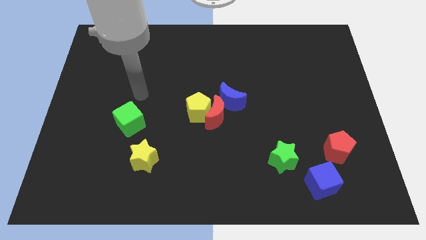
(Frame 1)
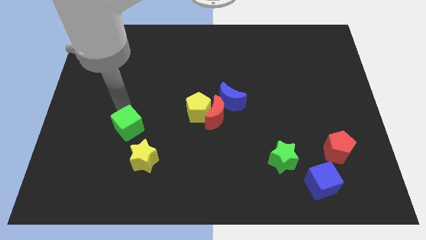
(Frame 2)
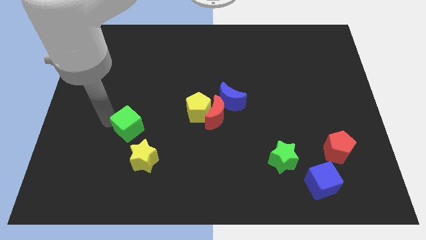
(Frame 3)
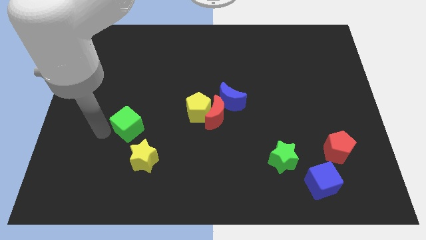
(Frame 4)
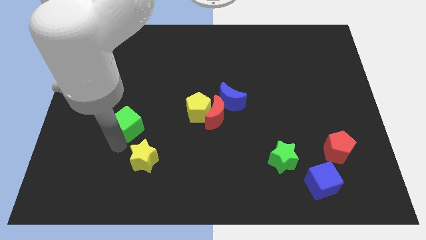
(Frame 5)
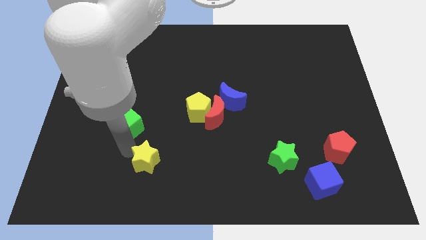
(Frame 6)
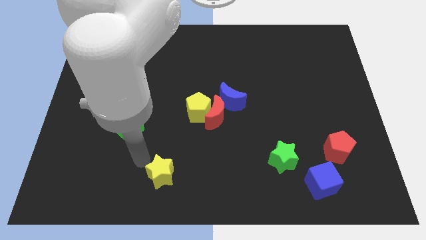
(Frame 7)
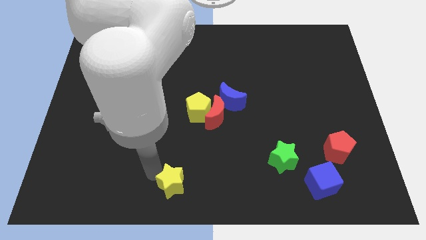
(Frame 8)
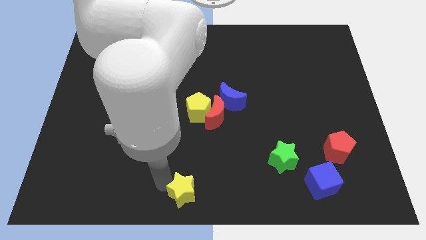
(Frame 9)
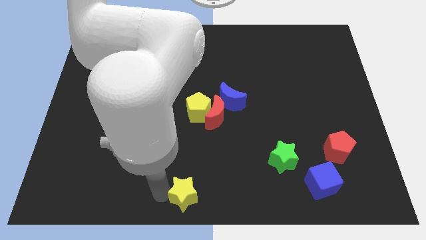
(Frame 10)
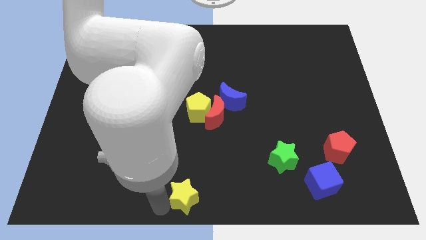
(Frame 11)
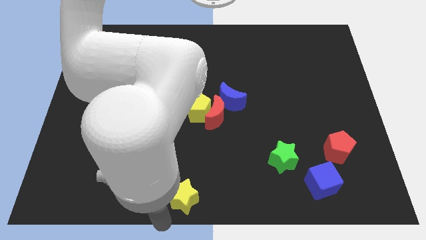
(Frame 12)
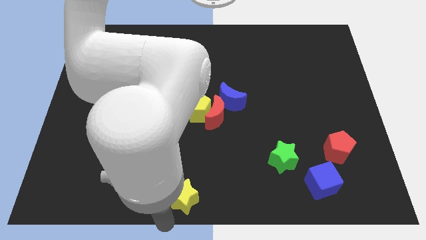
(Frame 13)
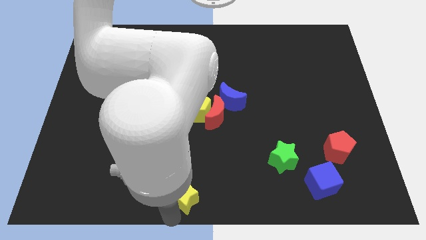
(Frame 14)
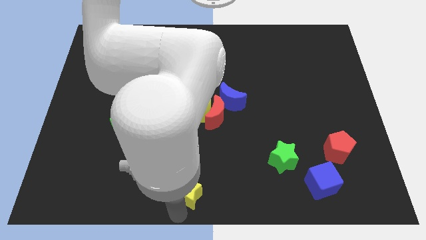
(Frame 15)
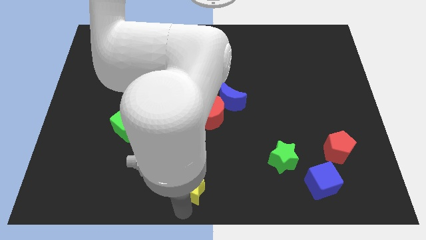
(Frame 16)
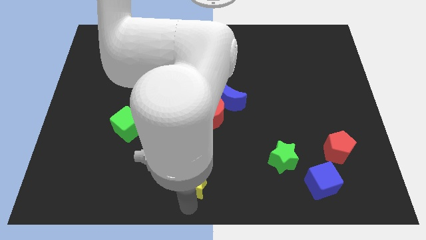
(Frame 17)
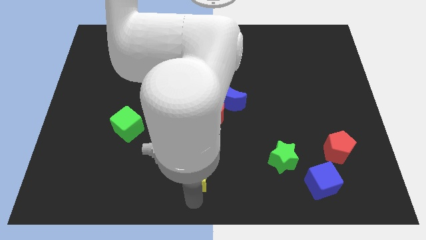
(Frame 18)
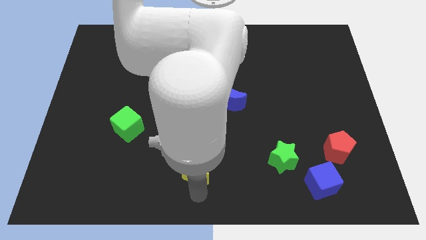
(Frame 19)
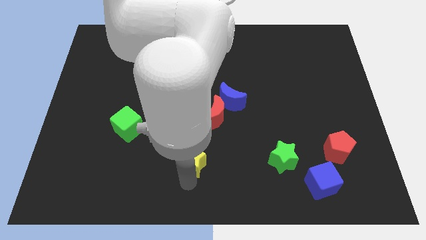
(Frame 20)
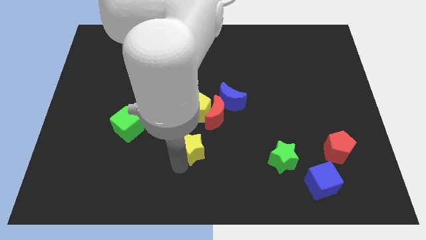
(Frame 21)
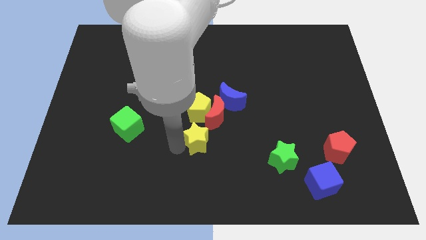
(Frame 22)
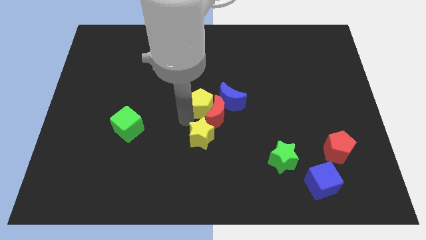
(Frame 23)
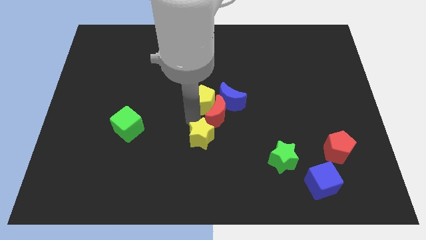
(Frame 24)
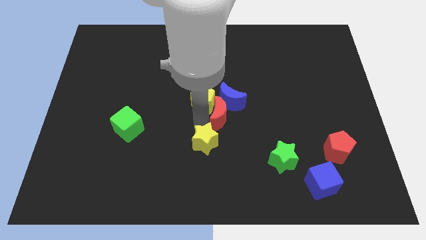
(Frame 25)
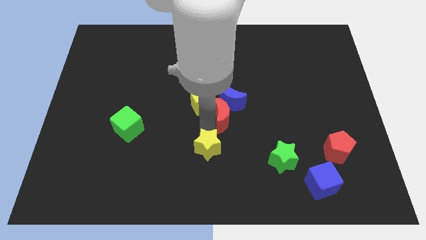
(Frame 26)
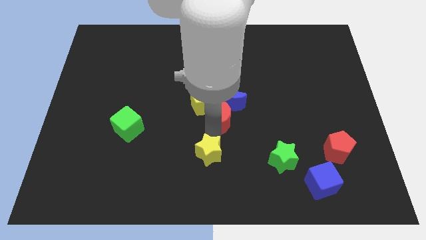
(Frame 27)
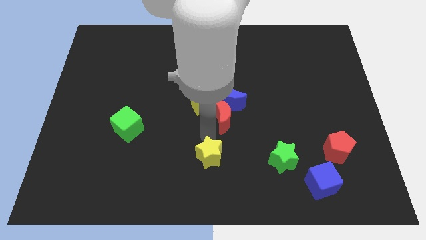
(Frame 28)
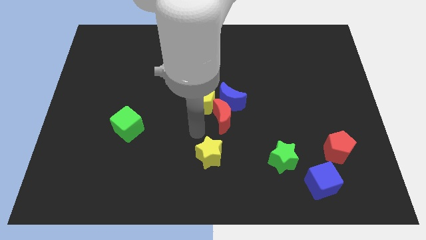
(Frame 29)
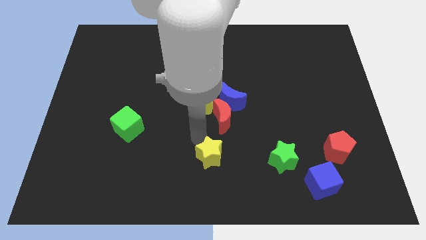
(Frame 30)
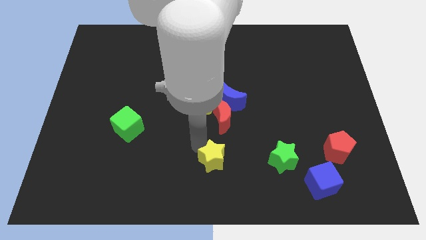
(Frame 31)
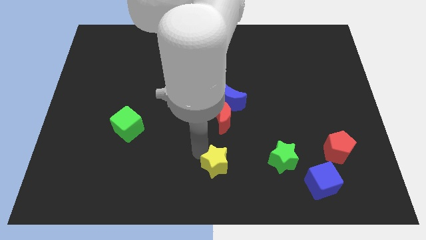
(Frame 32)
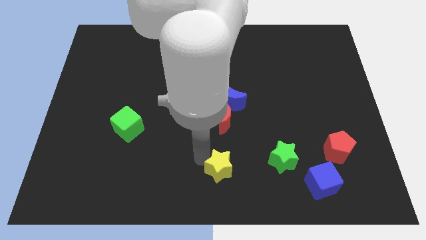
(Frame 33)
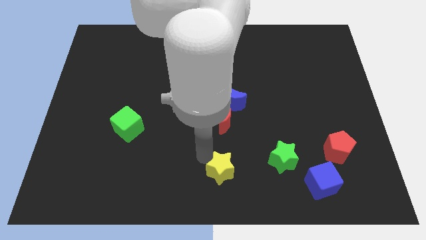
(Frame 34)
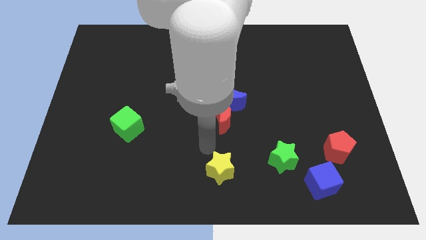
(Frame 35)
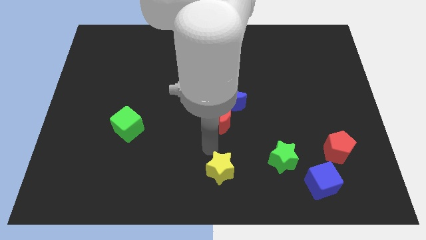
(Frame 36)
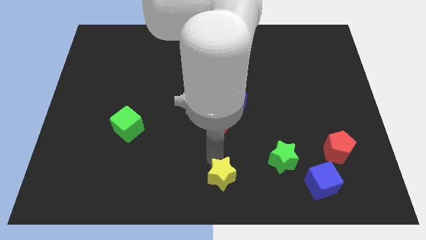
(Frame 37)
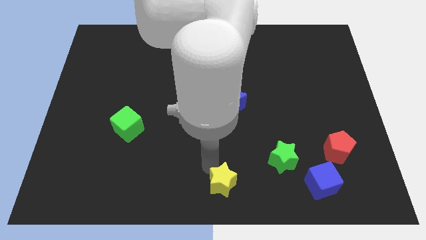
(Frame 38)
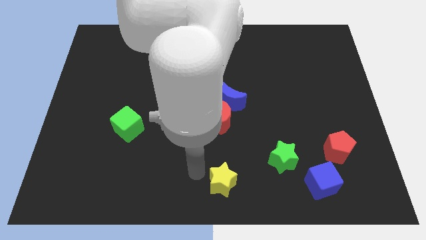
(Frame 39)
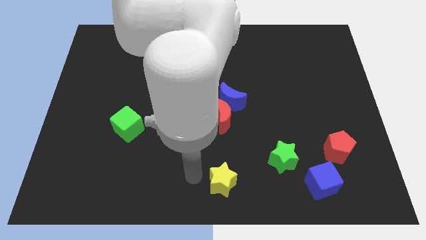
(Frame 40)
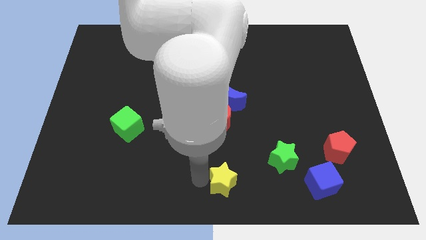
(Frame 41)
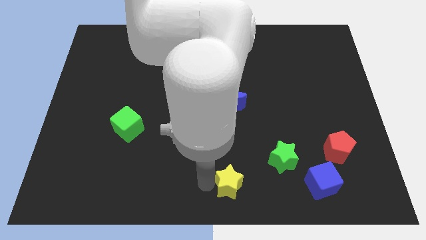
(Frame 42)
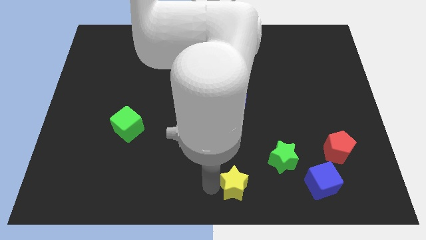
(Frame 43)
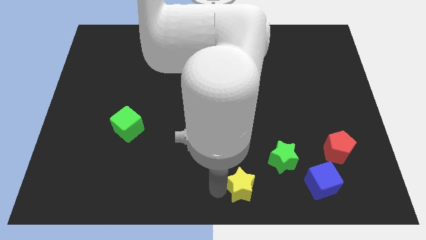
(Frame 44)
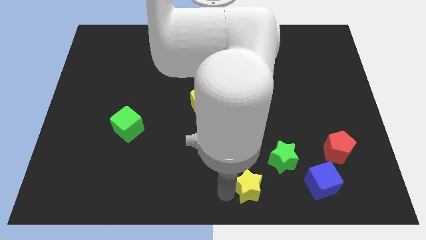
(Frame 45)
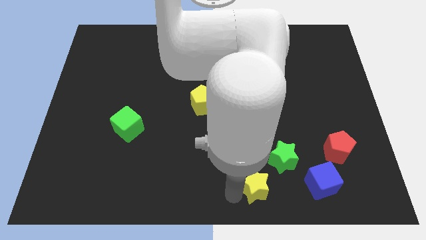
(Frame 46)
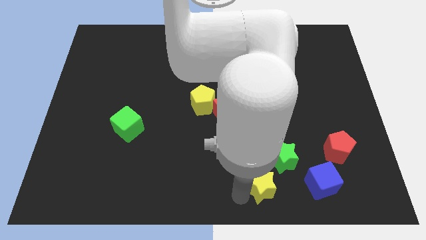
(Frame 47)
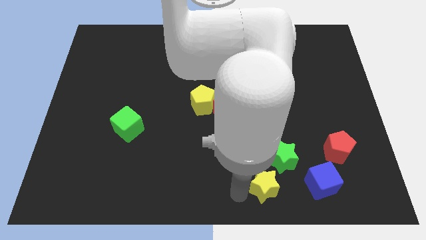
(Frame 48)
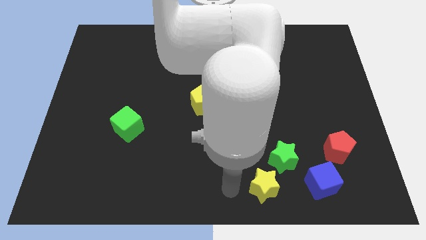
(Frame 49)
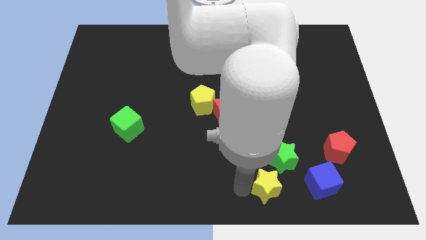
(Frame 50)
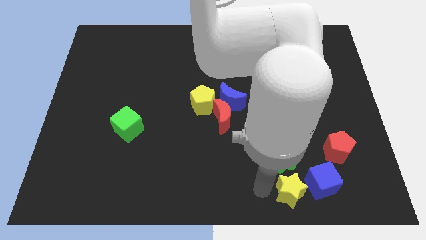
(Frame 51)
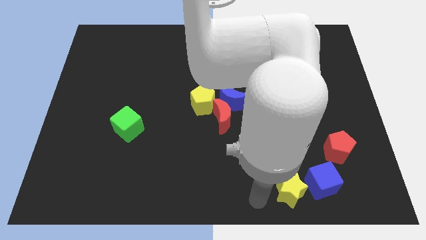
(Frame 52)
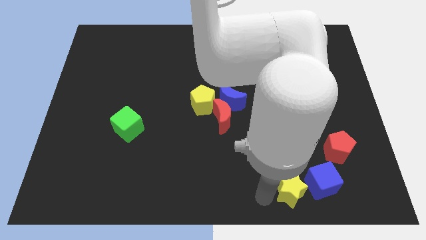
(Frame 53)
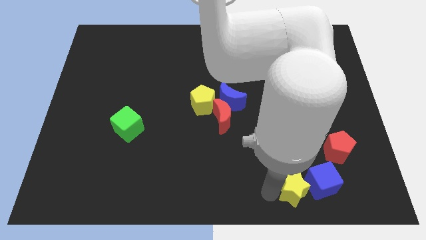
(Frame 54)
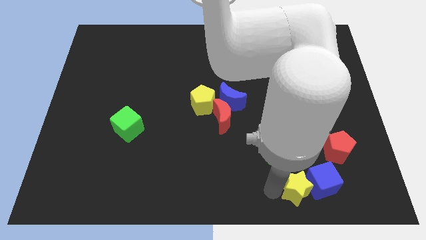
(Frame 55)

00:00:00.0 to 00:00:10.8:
slide the yellow star close to the blue cube

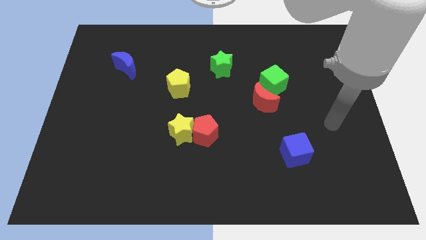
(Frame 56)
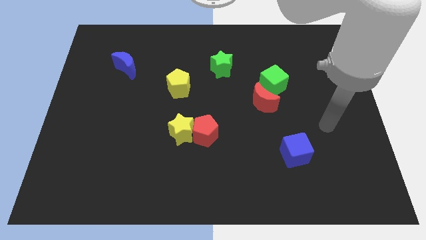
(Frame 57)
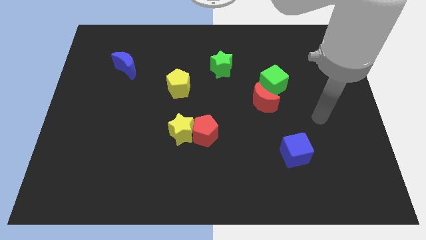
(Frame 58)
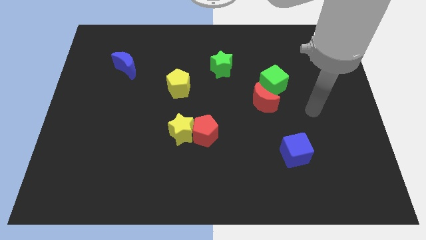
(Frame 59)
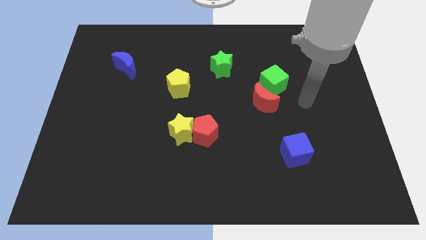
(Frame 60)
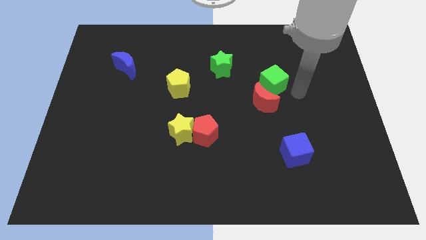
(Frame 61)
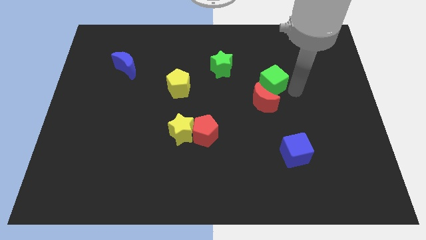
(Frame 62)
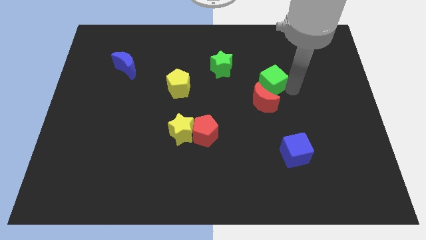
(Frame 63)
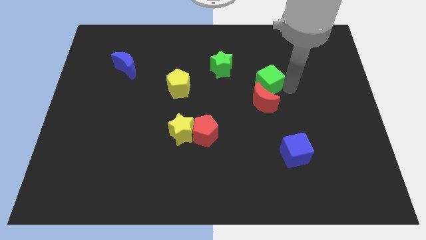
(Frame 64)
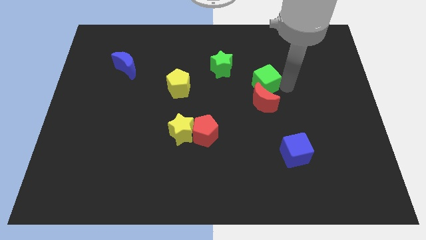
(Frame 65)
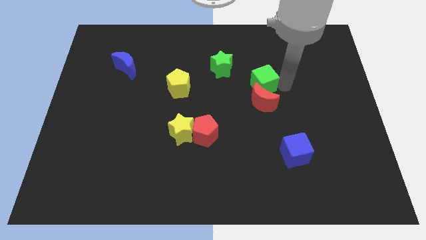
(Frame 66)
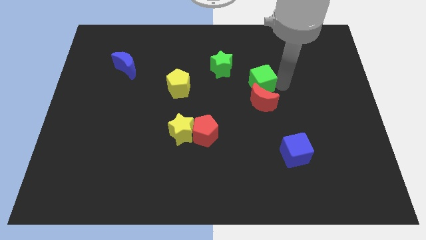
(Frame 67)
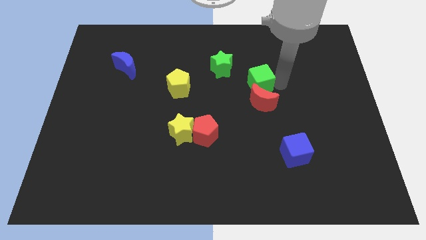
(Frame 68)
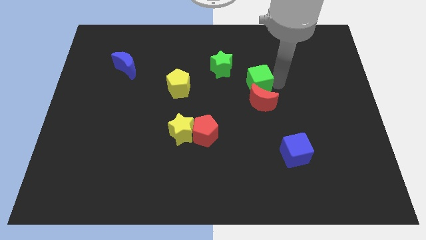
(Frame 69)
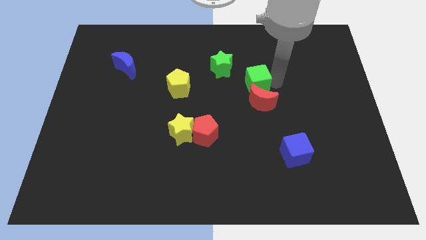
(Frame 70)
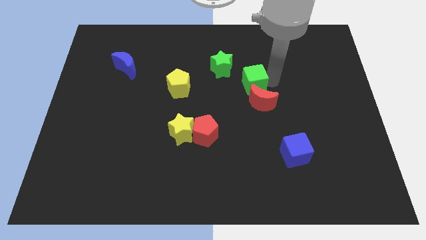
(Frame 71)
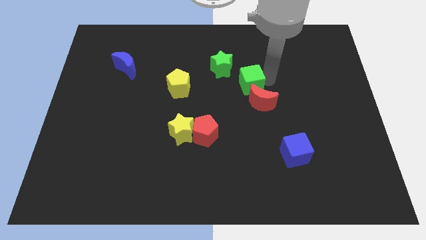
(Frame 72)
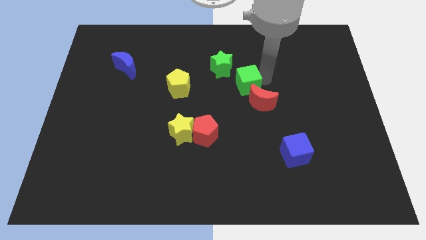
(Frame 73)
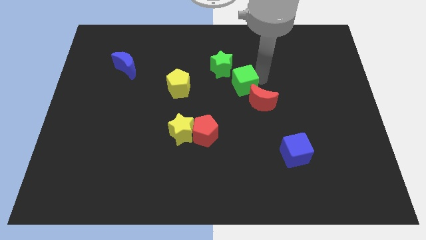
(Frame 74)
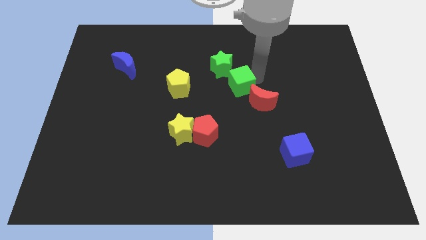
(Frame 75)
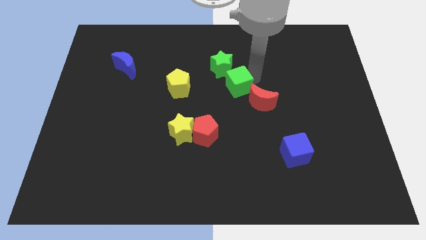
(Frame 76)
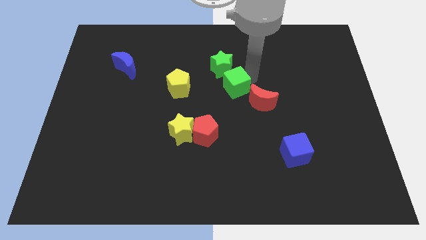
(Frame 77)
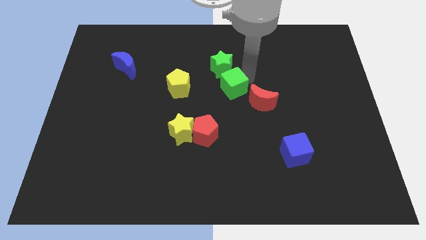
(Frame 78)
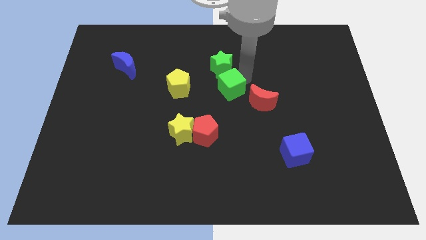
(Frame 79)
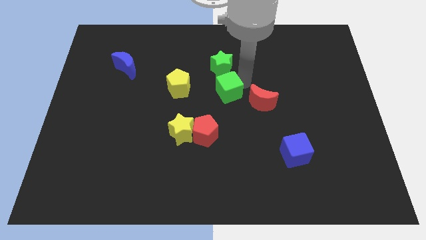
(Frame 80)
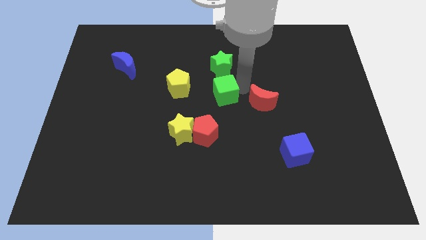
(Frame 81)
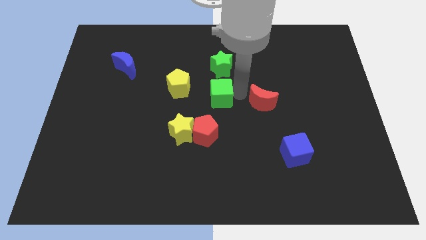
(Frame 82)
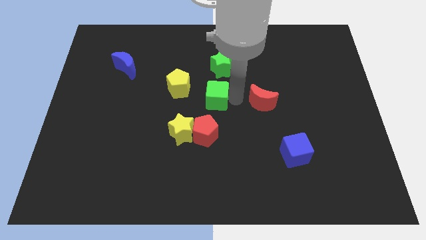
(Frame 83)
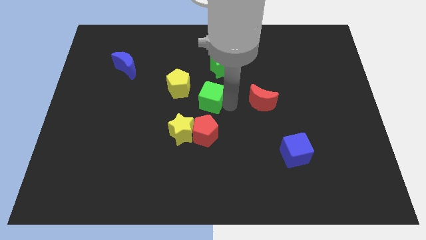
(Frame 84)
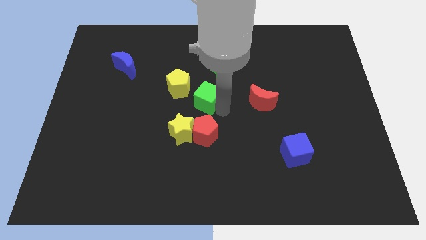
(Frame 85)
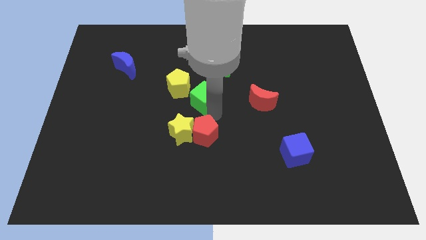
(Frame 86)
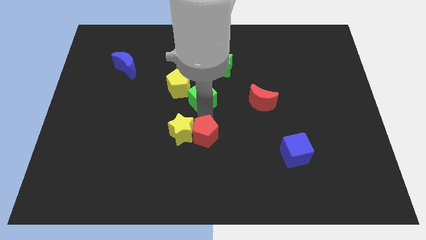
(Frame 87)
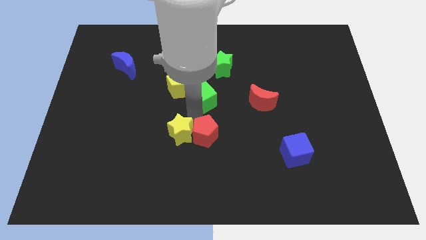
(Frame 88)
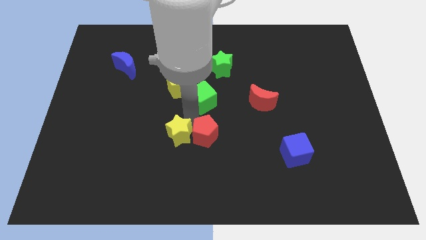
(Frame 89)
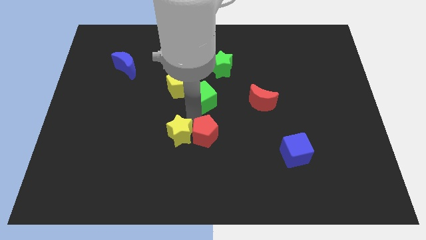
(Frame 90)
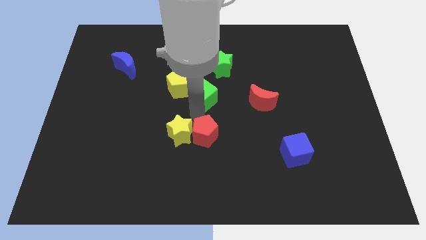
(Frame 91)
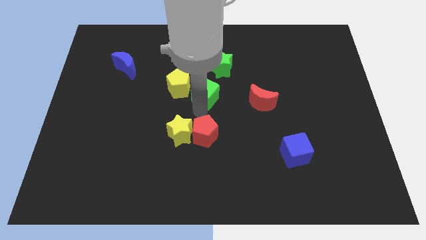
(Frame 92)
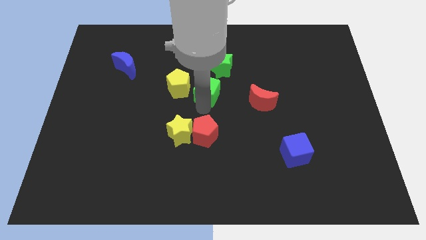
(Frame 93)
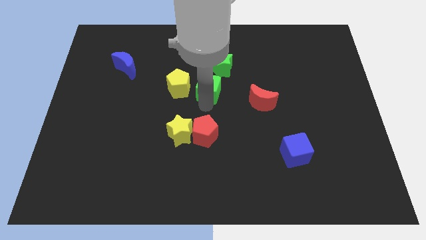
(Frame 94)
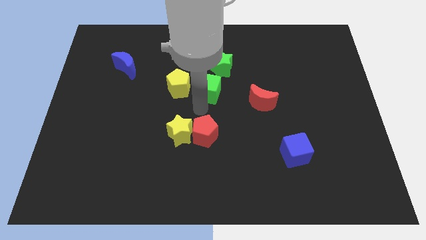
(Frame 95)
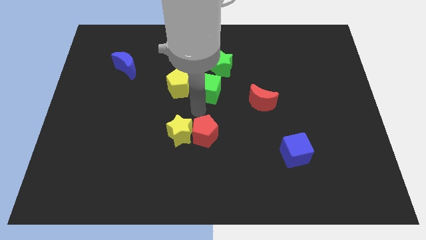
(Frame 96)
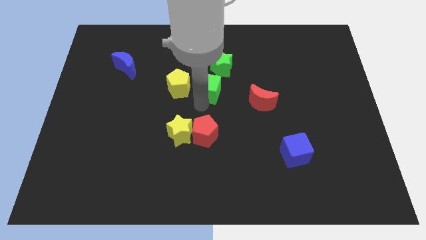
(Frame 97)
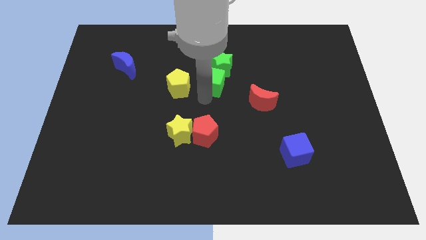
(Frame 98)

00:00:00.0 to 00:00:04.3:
push the green cube close to the green star
